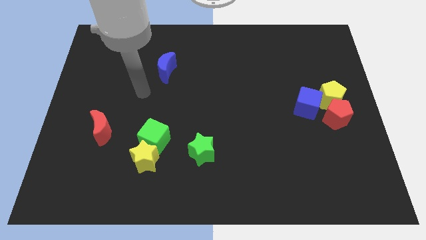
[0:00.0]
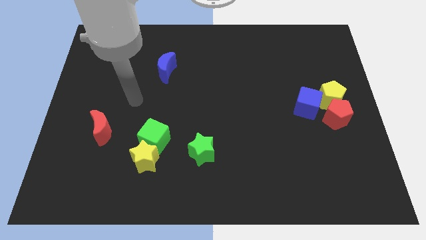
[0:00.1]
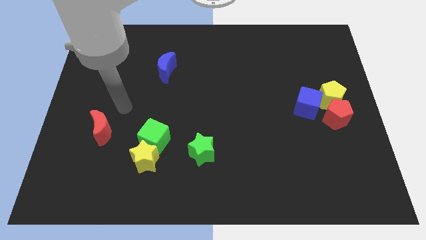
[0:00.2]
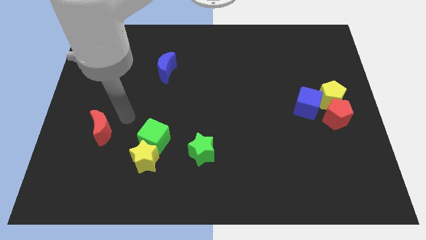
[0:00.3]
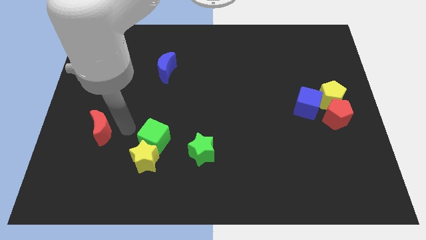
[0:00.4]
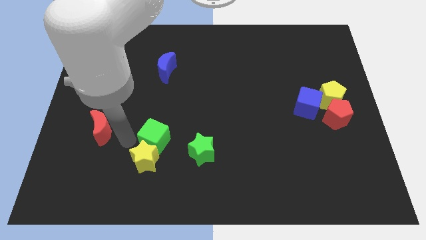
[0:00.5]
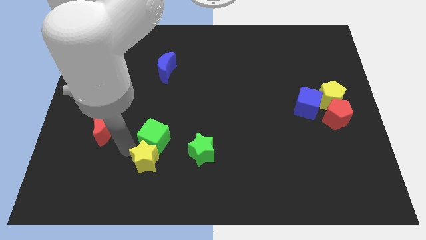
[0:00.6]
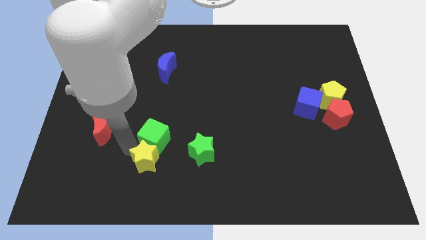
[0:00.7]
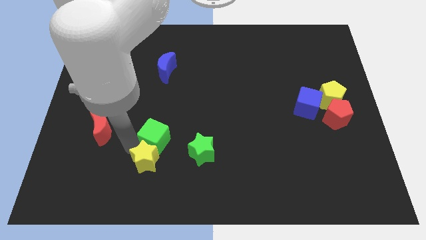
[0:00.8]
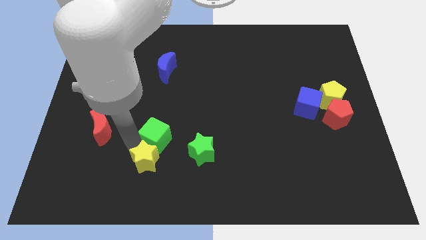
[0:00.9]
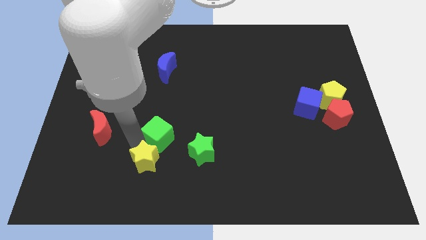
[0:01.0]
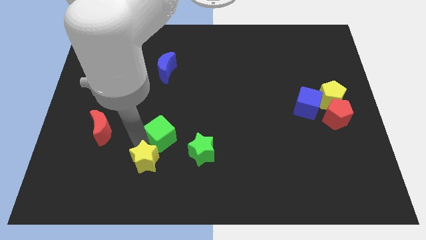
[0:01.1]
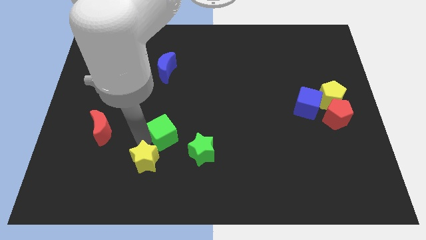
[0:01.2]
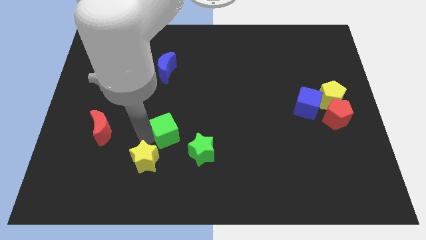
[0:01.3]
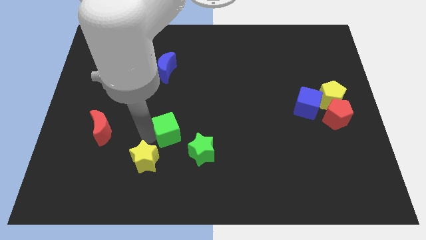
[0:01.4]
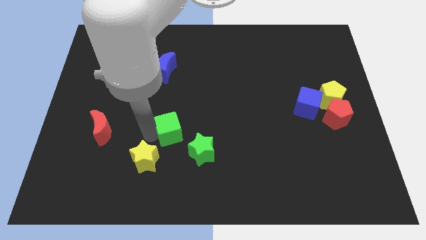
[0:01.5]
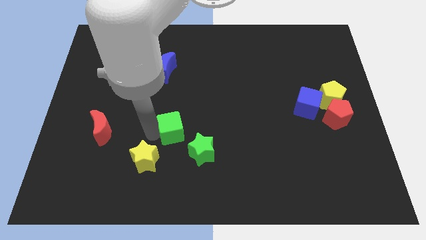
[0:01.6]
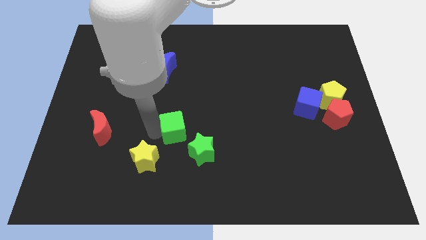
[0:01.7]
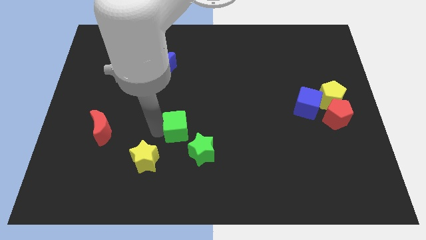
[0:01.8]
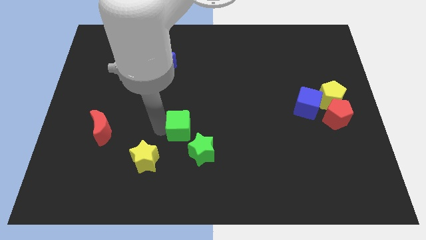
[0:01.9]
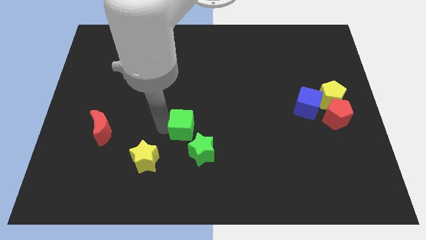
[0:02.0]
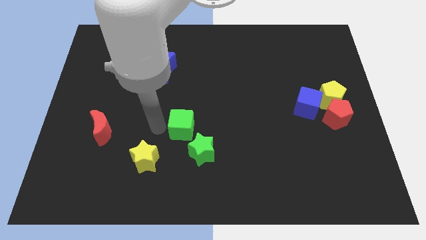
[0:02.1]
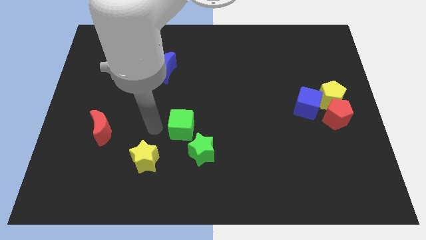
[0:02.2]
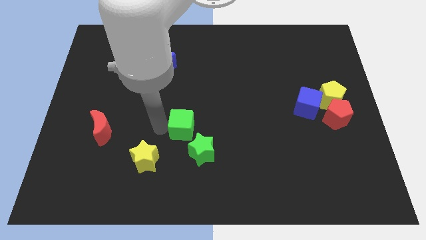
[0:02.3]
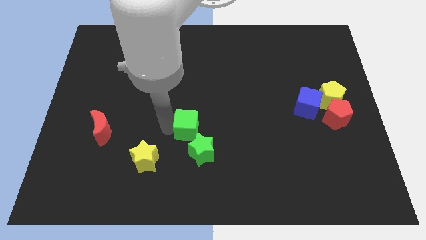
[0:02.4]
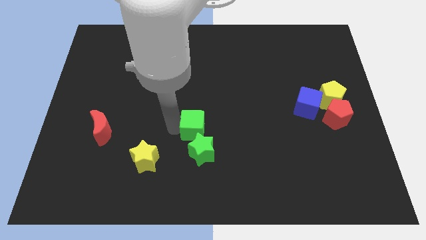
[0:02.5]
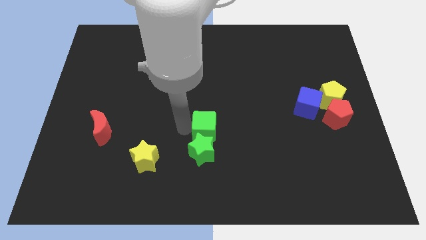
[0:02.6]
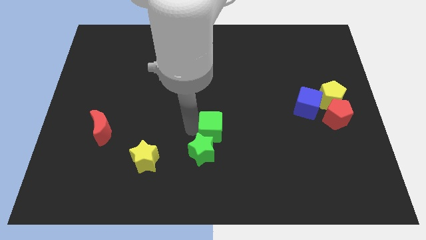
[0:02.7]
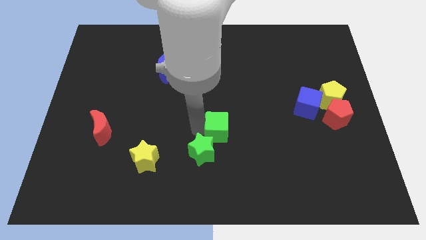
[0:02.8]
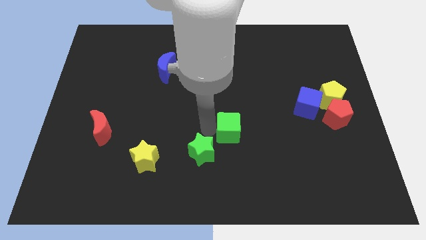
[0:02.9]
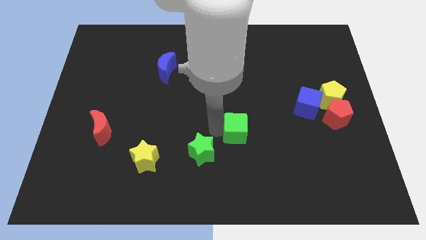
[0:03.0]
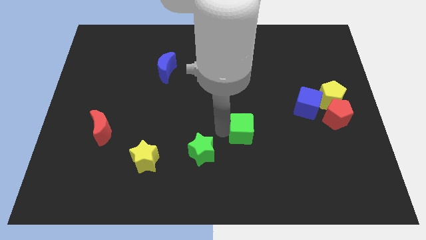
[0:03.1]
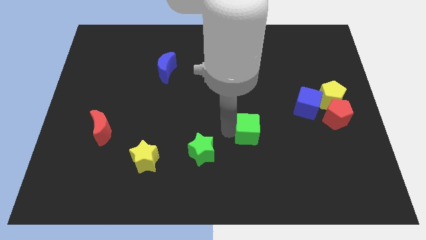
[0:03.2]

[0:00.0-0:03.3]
slide the green cube right

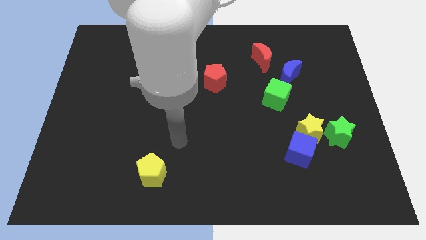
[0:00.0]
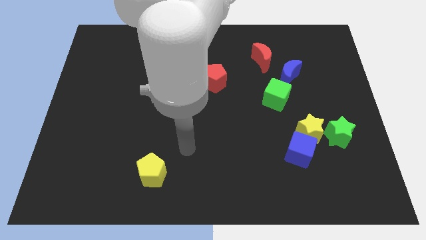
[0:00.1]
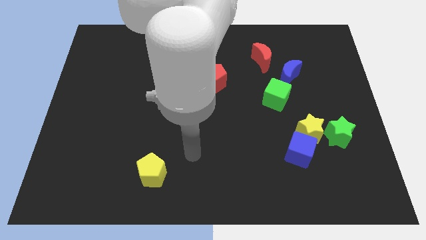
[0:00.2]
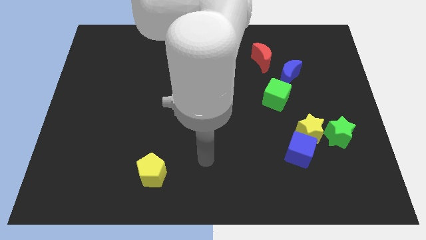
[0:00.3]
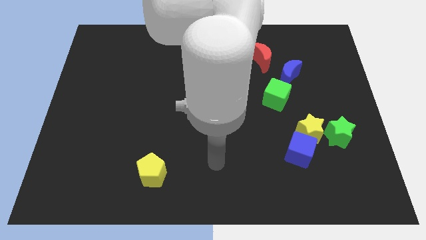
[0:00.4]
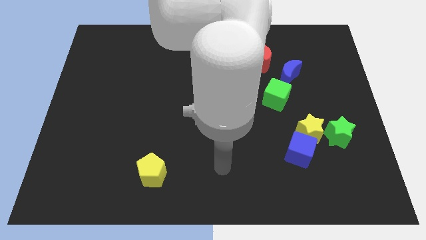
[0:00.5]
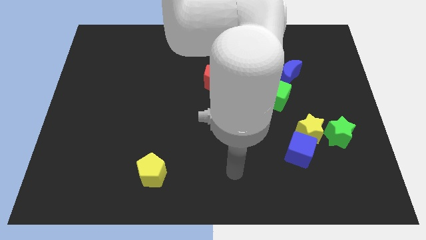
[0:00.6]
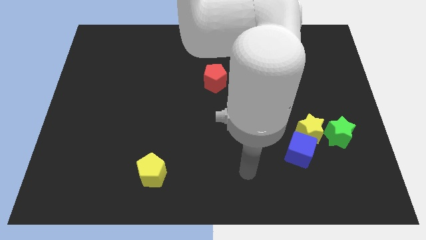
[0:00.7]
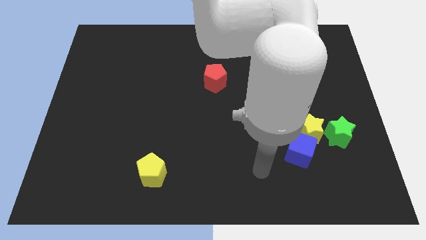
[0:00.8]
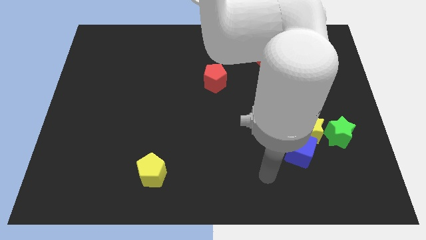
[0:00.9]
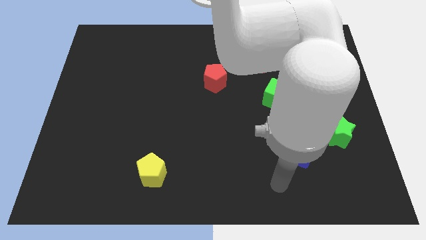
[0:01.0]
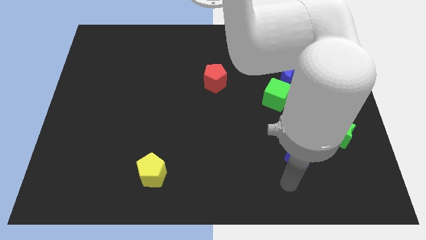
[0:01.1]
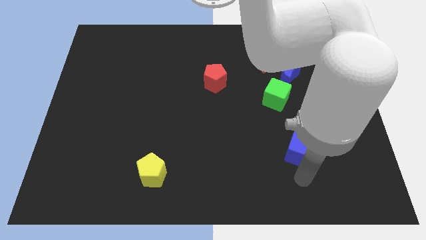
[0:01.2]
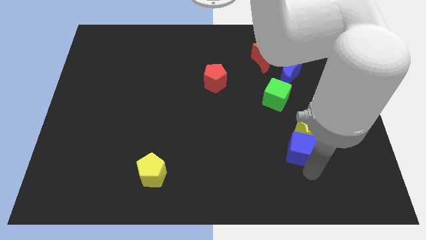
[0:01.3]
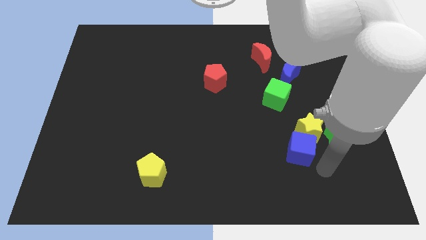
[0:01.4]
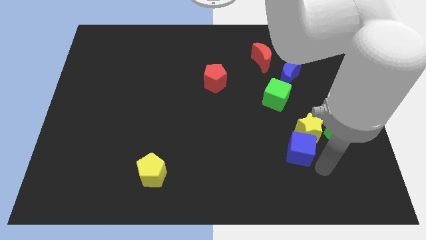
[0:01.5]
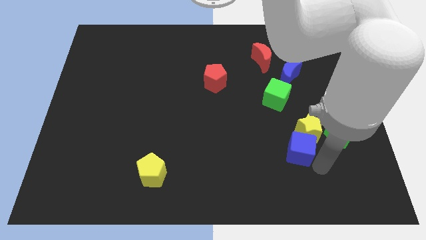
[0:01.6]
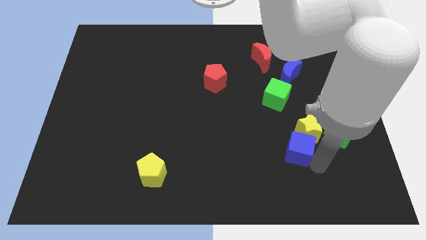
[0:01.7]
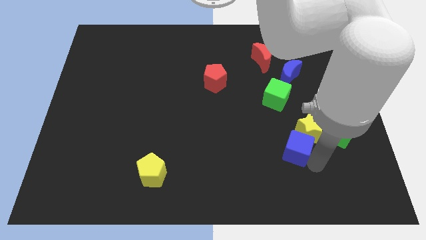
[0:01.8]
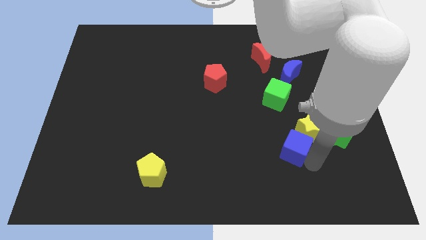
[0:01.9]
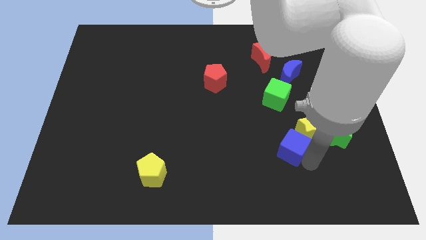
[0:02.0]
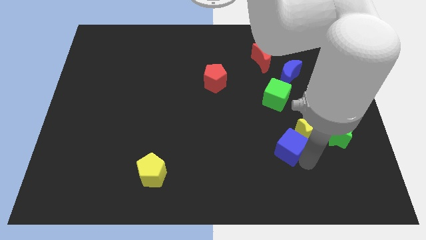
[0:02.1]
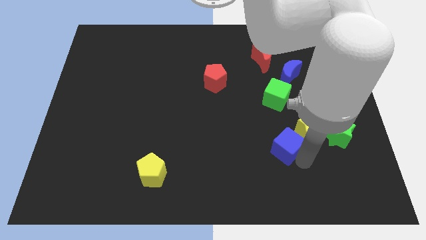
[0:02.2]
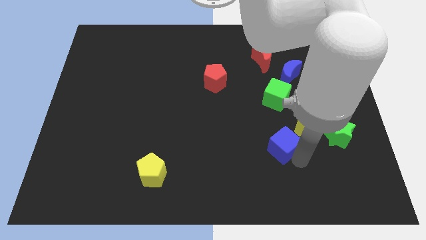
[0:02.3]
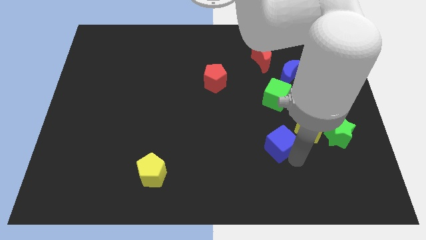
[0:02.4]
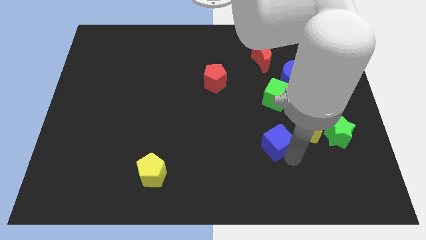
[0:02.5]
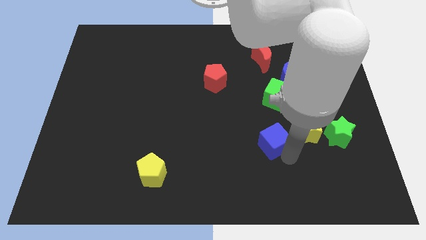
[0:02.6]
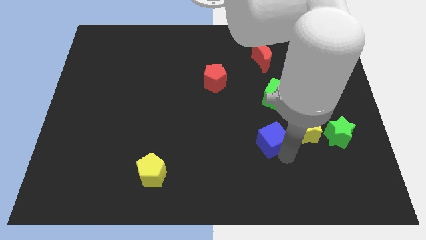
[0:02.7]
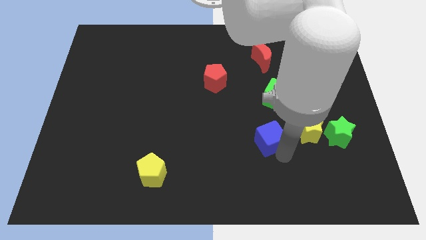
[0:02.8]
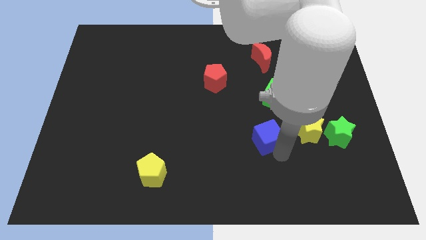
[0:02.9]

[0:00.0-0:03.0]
slightly push the blue cube upwards and then left

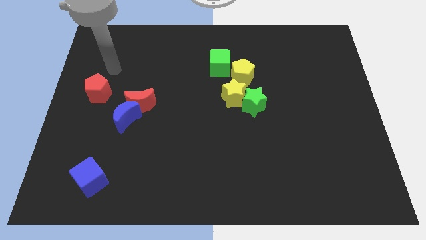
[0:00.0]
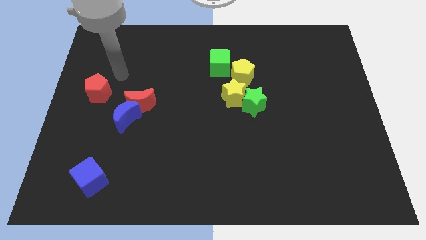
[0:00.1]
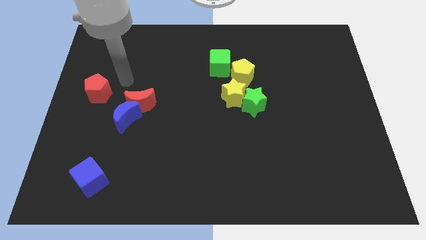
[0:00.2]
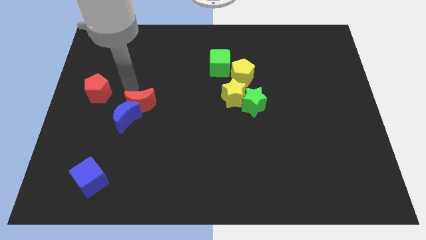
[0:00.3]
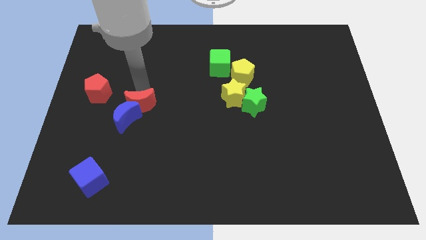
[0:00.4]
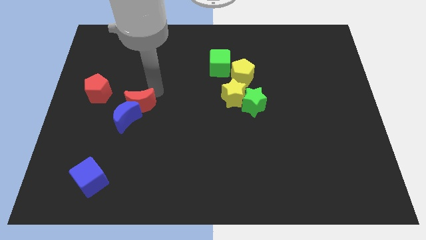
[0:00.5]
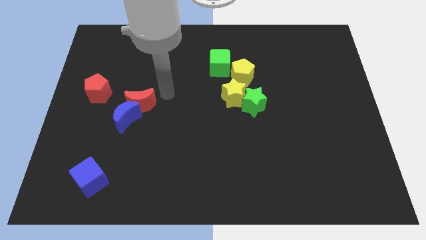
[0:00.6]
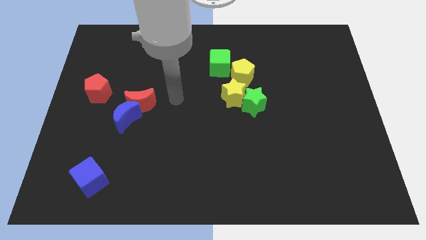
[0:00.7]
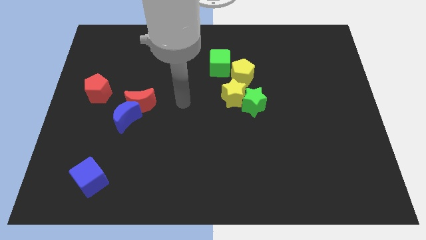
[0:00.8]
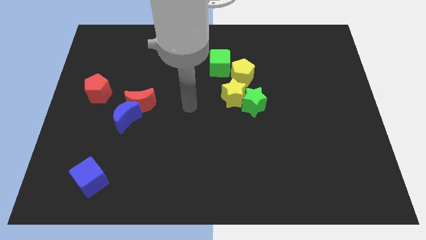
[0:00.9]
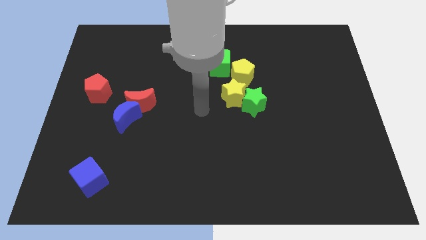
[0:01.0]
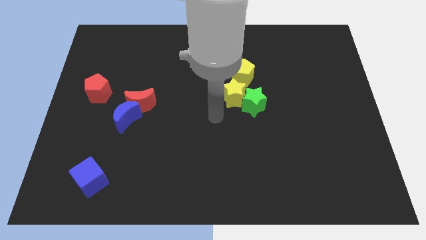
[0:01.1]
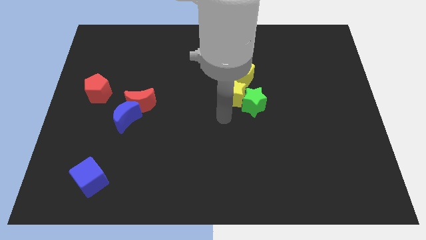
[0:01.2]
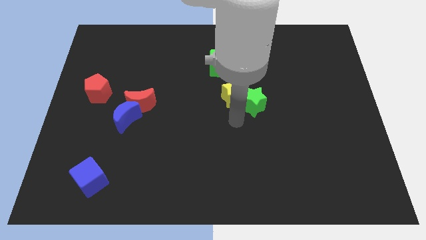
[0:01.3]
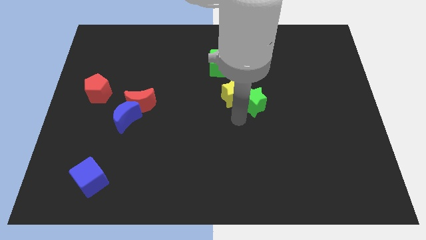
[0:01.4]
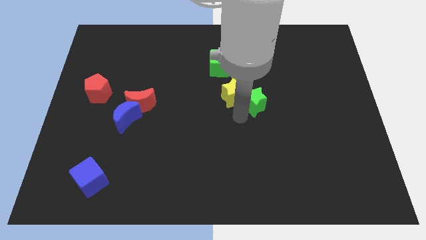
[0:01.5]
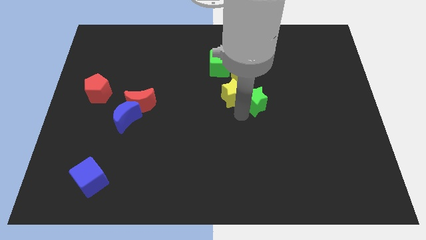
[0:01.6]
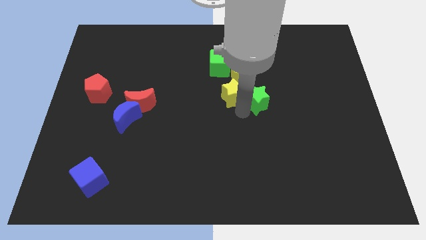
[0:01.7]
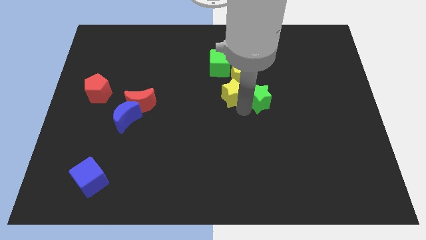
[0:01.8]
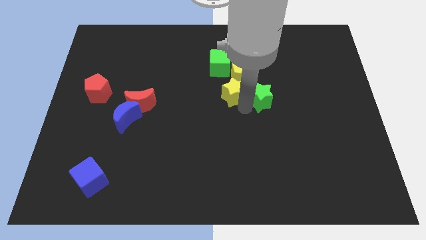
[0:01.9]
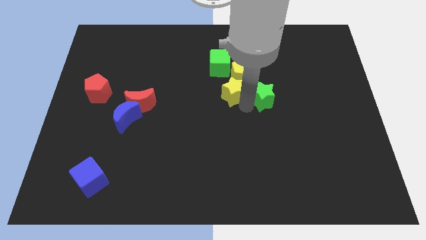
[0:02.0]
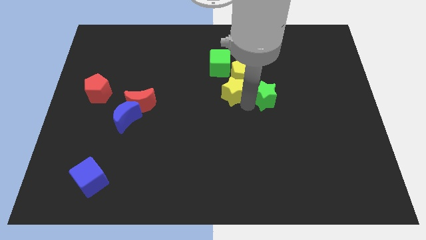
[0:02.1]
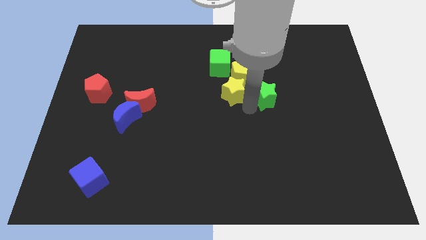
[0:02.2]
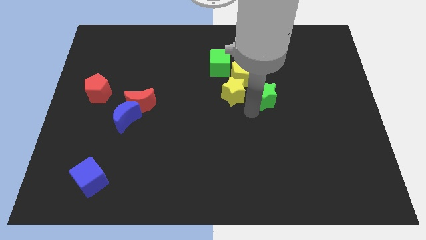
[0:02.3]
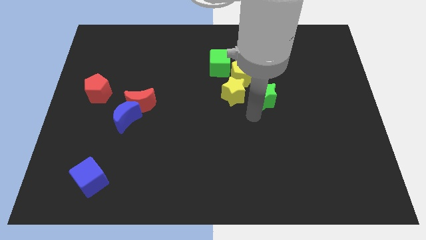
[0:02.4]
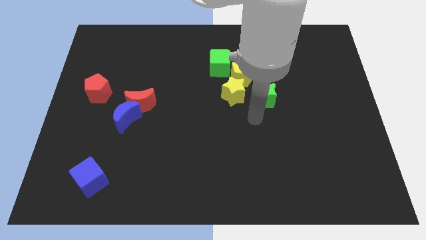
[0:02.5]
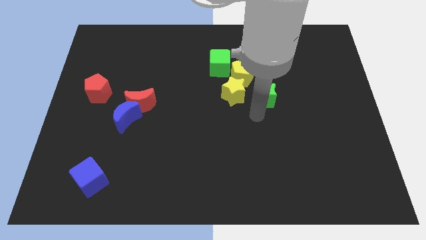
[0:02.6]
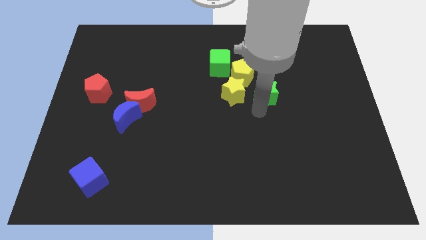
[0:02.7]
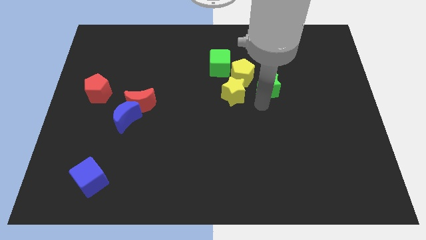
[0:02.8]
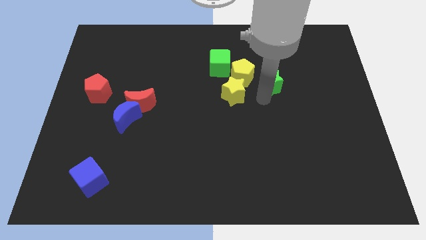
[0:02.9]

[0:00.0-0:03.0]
slightly push the green star up and then to the right
